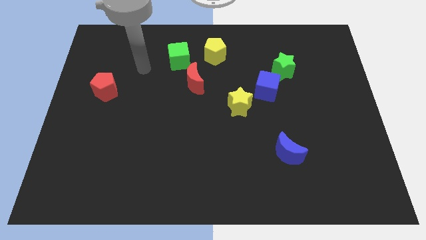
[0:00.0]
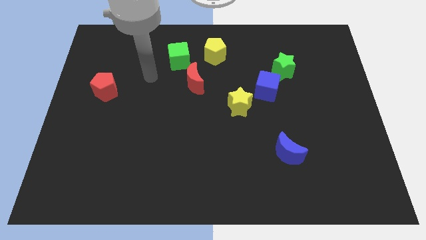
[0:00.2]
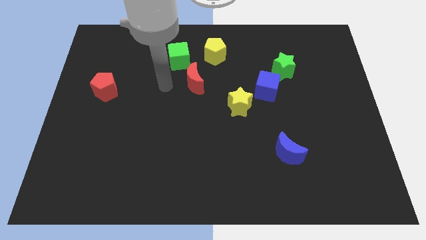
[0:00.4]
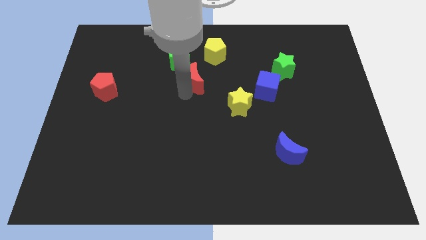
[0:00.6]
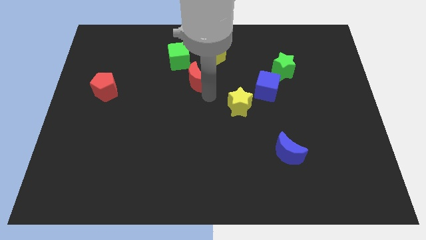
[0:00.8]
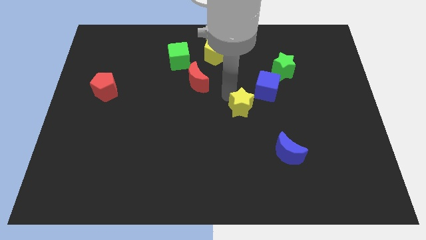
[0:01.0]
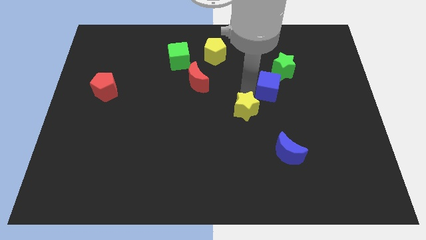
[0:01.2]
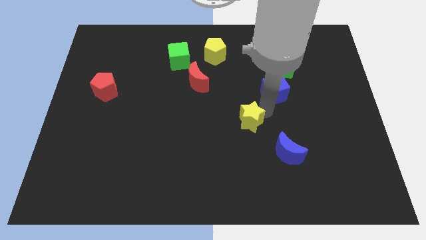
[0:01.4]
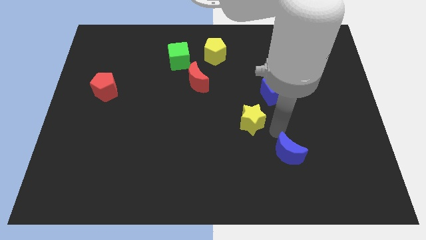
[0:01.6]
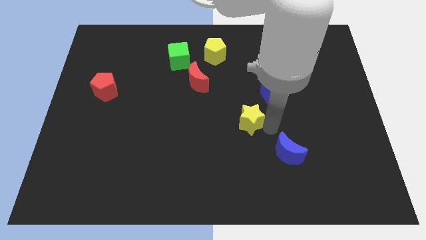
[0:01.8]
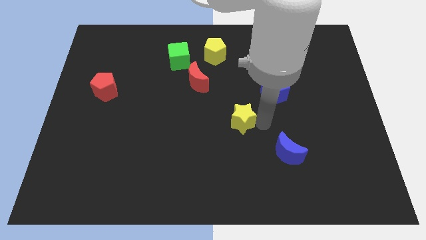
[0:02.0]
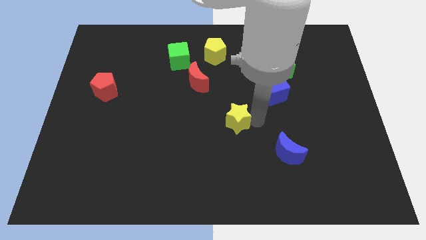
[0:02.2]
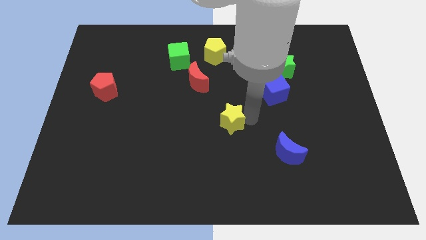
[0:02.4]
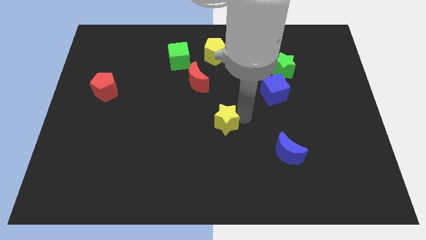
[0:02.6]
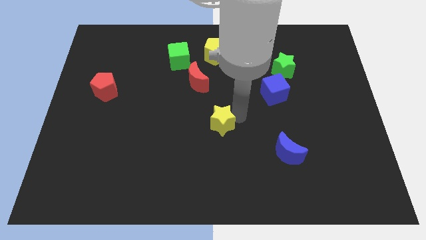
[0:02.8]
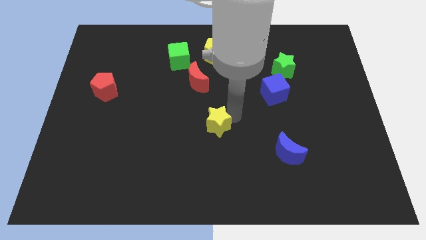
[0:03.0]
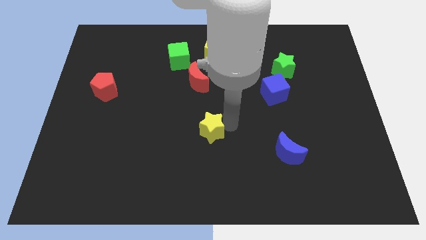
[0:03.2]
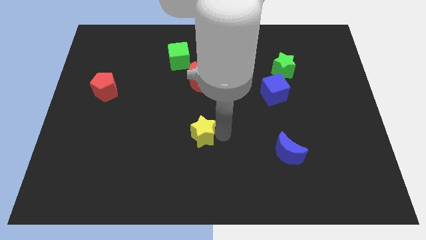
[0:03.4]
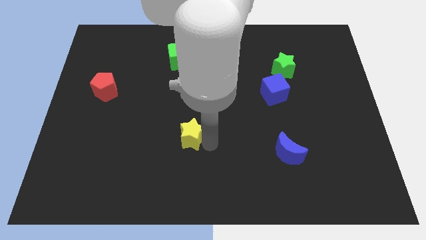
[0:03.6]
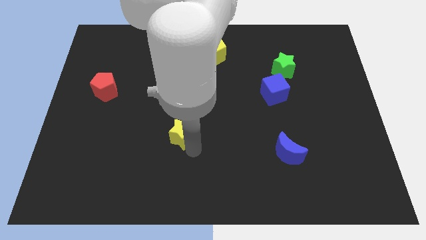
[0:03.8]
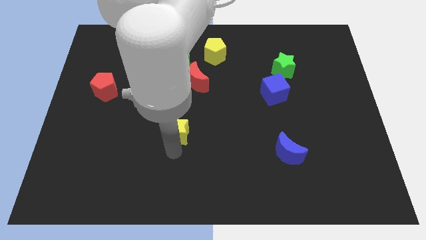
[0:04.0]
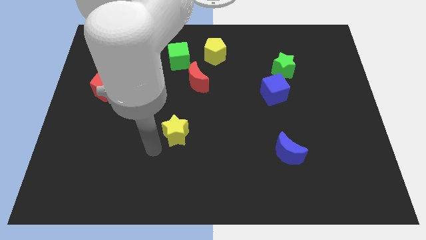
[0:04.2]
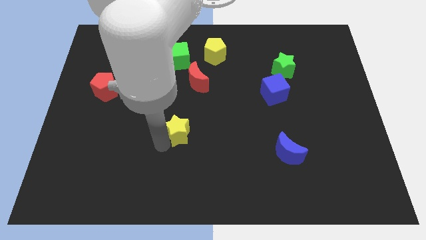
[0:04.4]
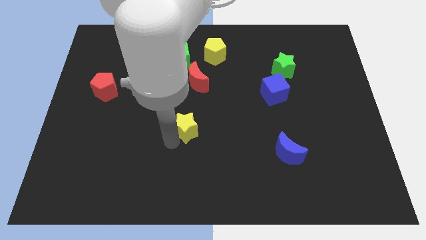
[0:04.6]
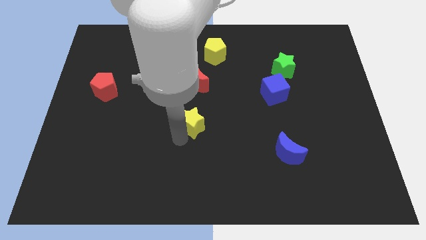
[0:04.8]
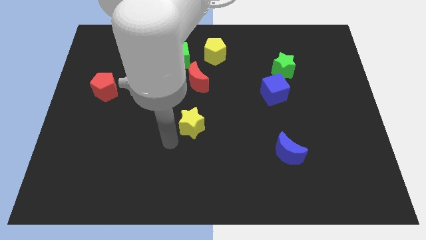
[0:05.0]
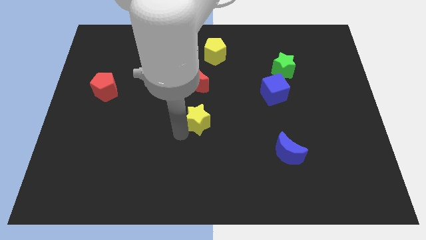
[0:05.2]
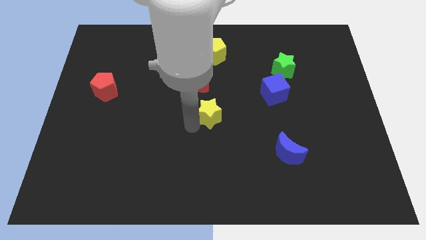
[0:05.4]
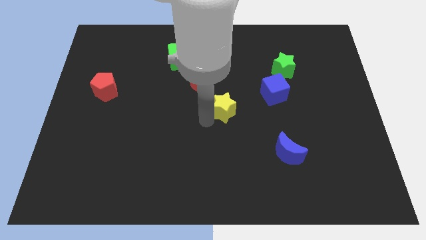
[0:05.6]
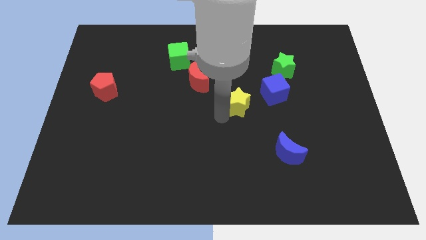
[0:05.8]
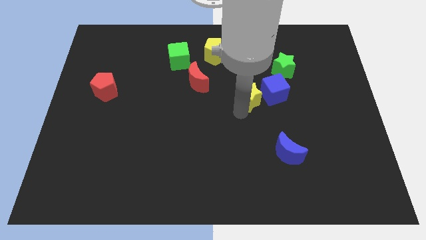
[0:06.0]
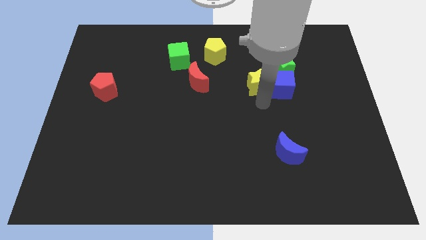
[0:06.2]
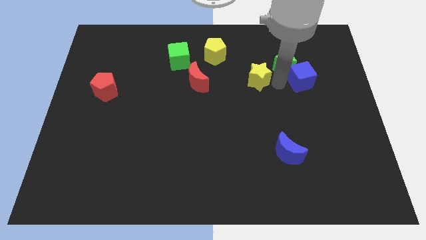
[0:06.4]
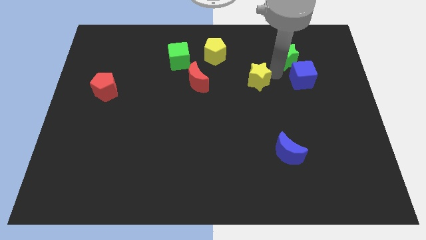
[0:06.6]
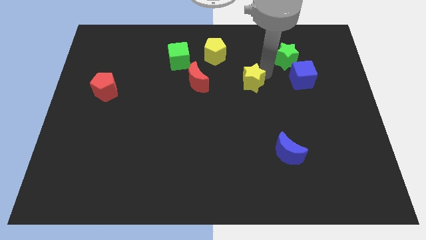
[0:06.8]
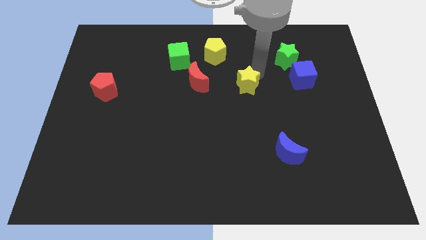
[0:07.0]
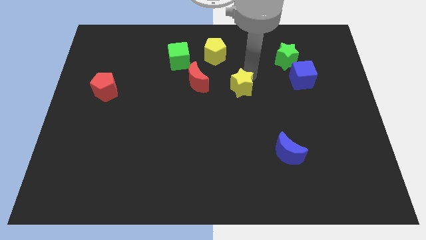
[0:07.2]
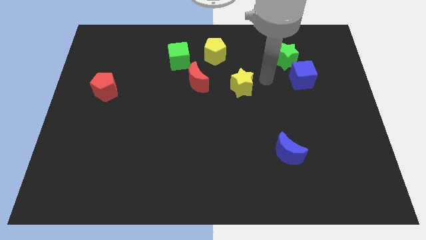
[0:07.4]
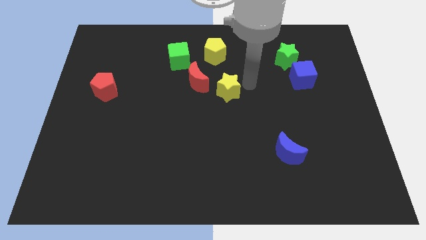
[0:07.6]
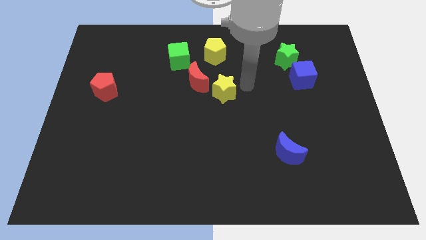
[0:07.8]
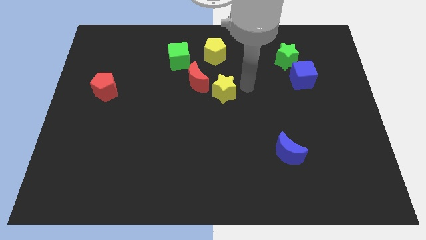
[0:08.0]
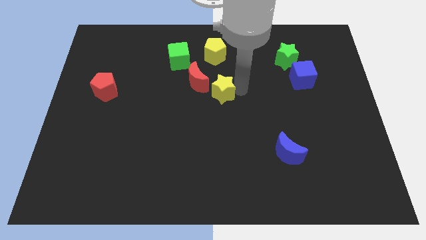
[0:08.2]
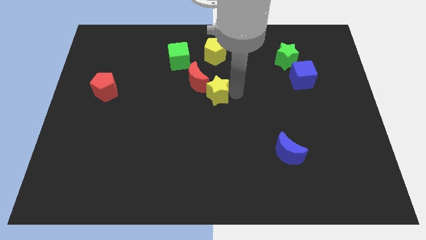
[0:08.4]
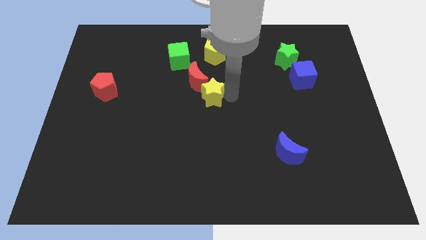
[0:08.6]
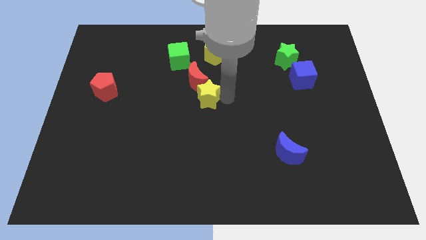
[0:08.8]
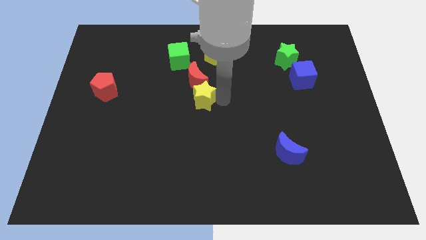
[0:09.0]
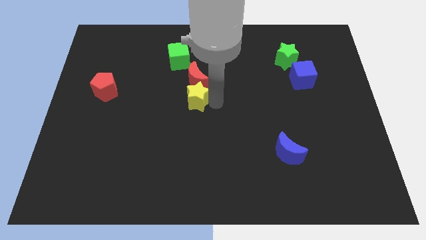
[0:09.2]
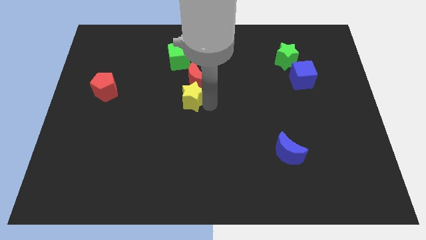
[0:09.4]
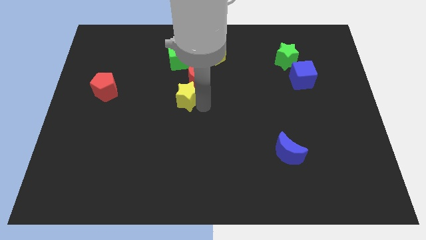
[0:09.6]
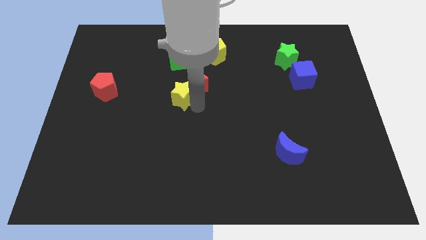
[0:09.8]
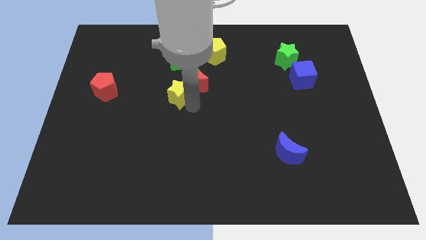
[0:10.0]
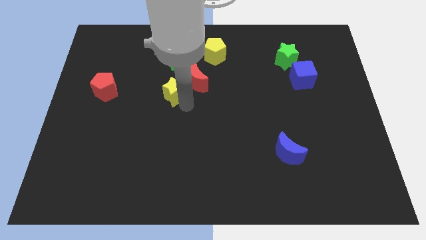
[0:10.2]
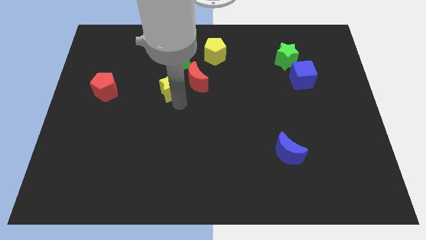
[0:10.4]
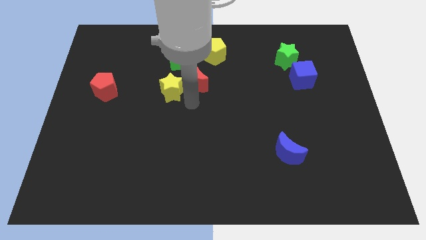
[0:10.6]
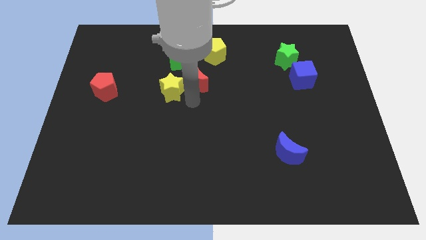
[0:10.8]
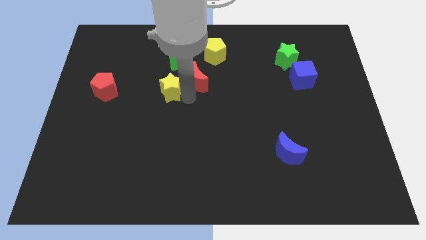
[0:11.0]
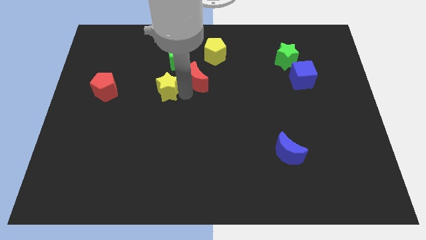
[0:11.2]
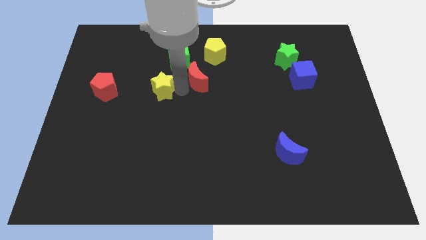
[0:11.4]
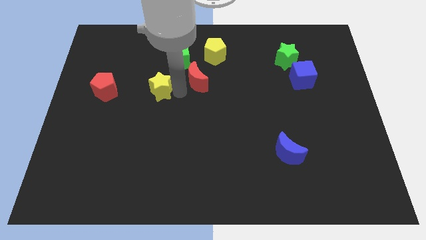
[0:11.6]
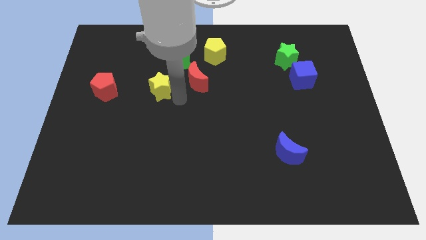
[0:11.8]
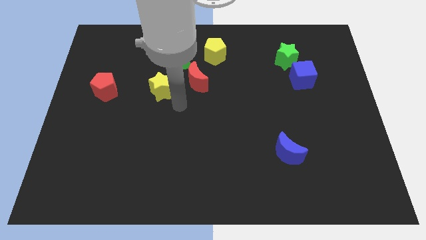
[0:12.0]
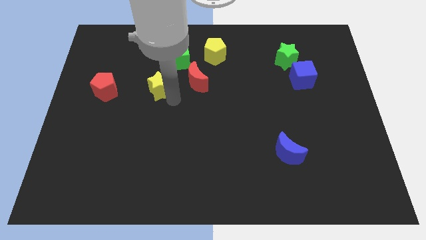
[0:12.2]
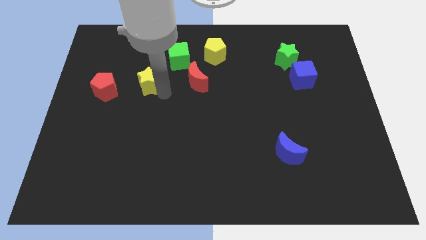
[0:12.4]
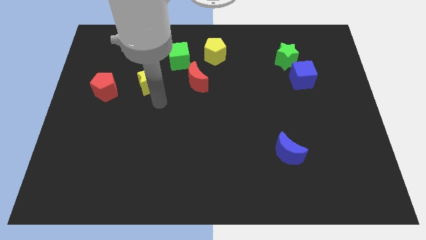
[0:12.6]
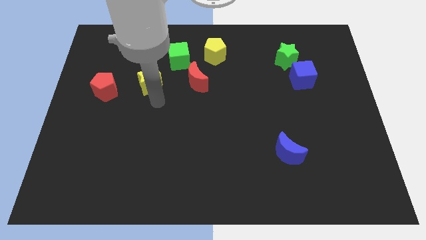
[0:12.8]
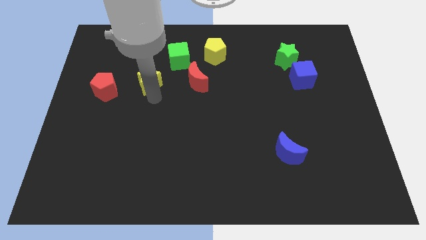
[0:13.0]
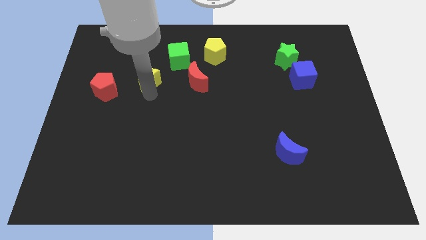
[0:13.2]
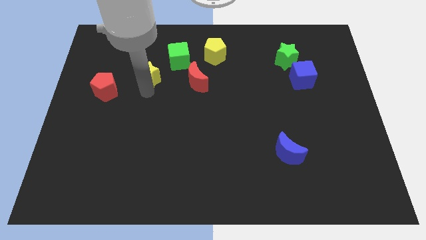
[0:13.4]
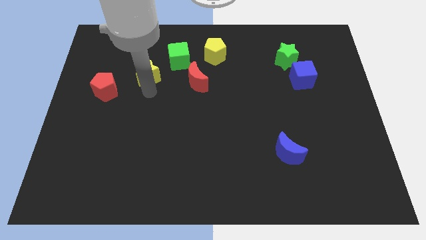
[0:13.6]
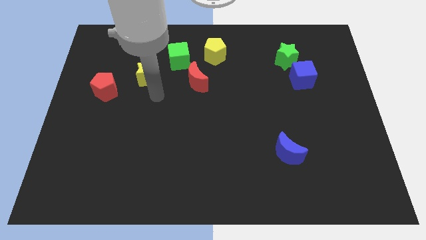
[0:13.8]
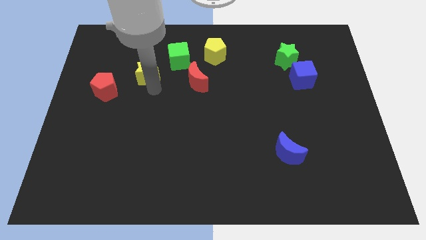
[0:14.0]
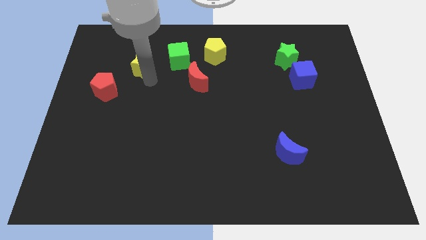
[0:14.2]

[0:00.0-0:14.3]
slide the yellow star just left of the green cube

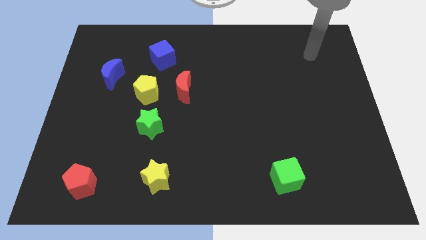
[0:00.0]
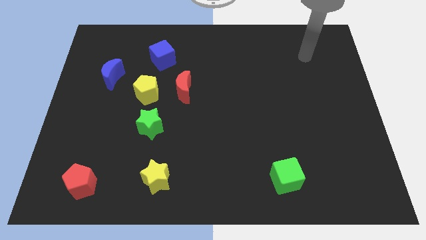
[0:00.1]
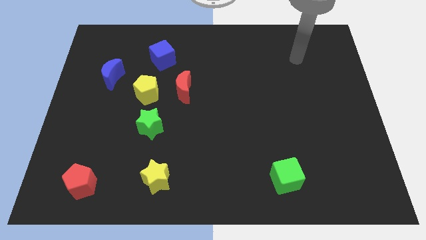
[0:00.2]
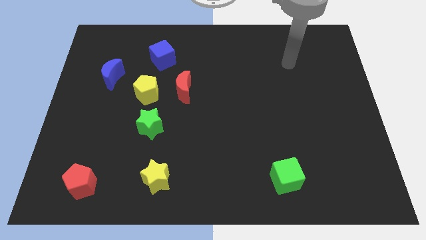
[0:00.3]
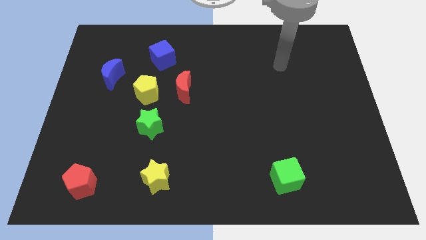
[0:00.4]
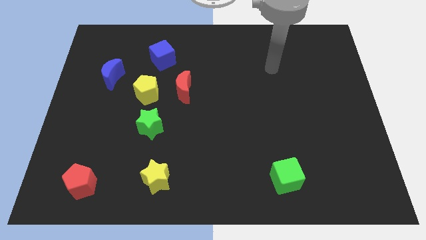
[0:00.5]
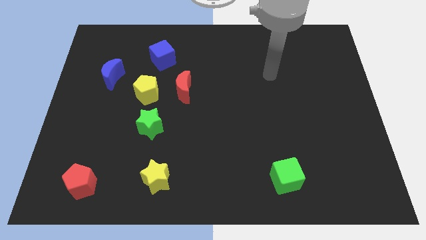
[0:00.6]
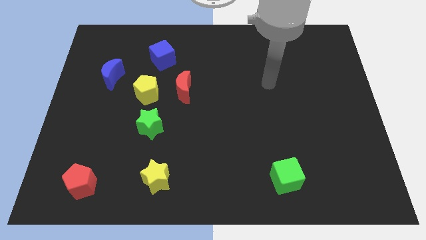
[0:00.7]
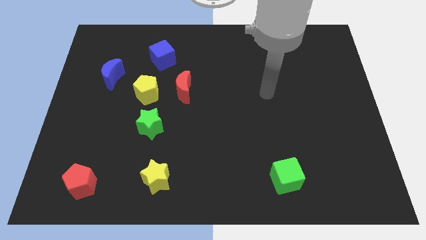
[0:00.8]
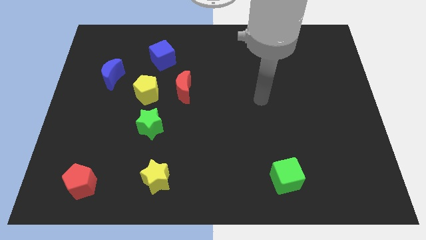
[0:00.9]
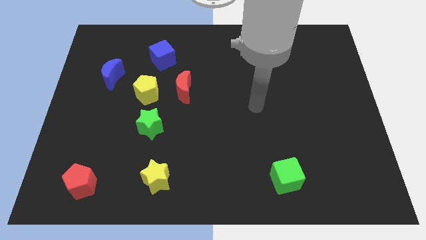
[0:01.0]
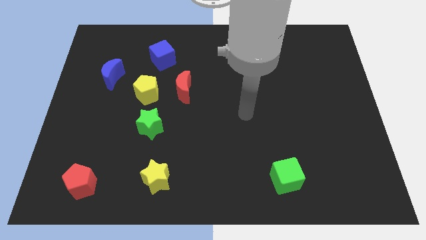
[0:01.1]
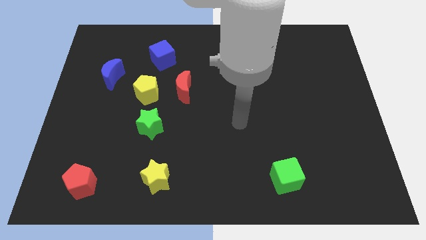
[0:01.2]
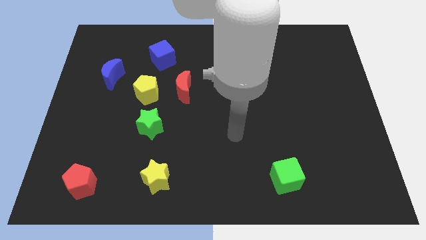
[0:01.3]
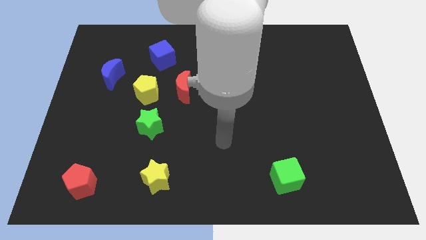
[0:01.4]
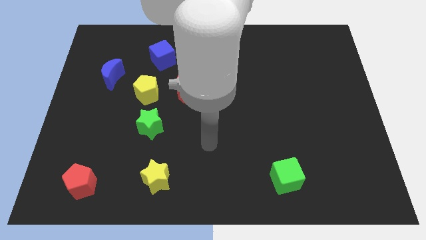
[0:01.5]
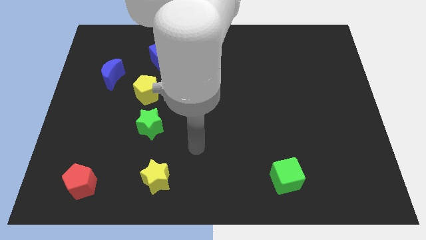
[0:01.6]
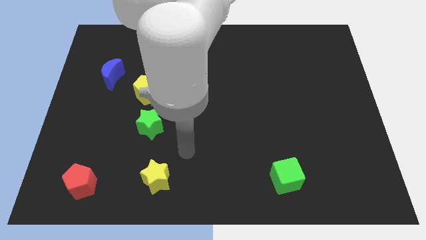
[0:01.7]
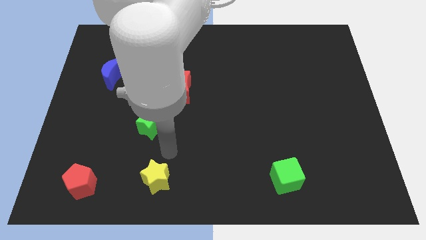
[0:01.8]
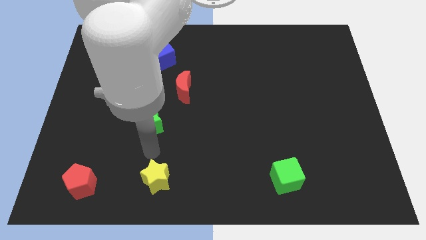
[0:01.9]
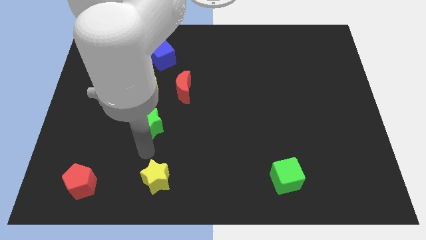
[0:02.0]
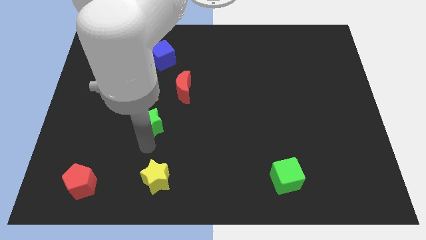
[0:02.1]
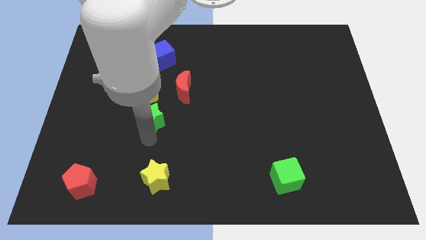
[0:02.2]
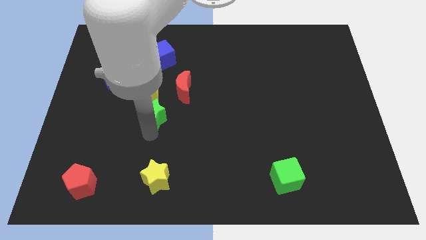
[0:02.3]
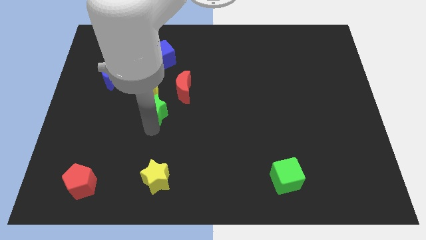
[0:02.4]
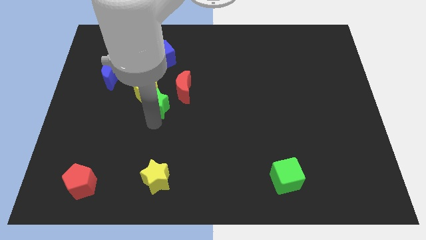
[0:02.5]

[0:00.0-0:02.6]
move the green star to the bottom side of the blue cube
